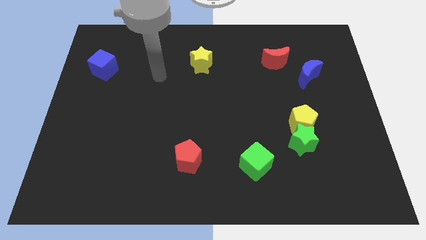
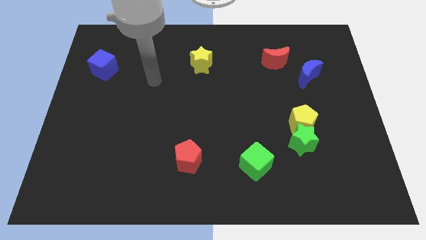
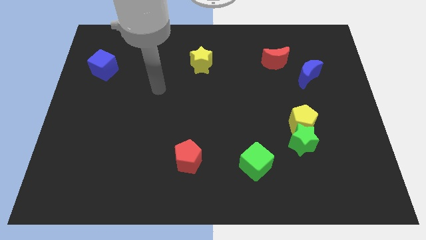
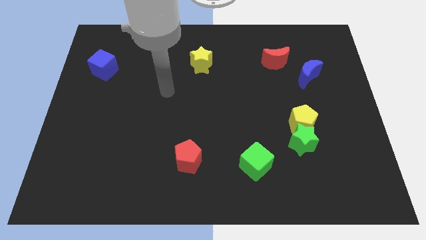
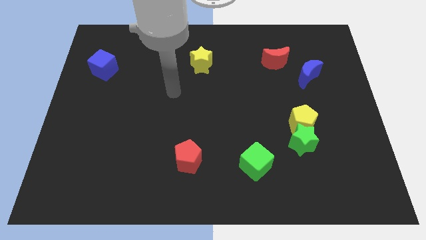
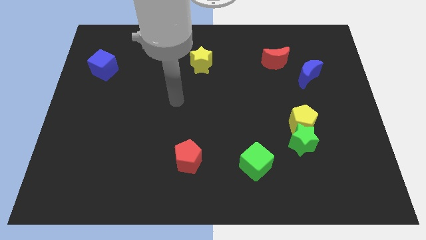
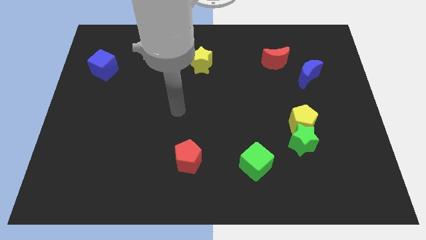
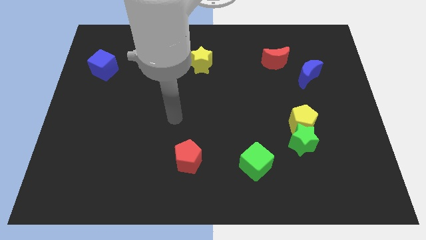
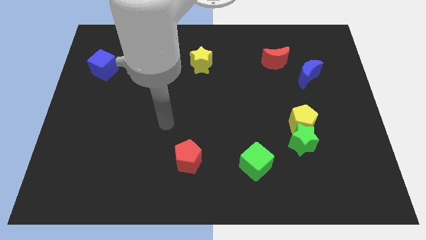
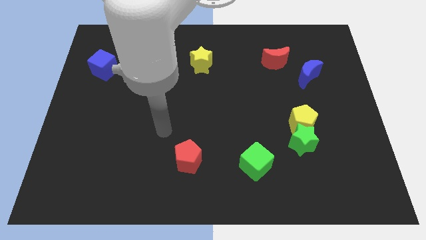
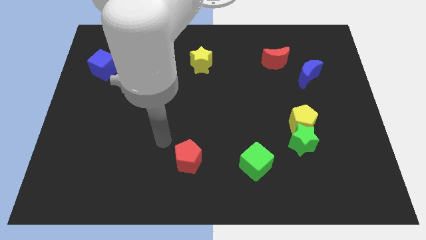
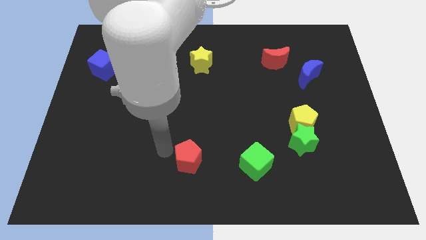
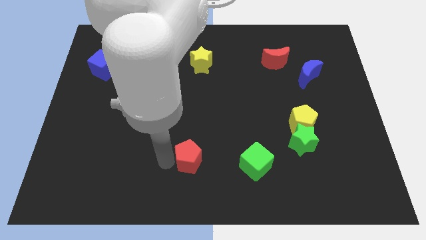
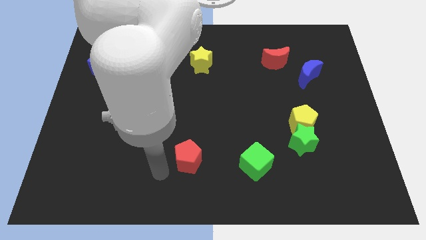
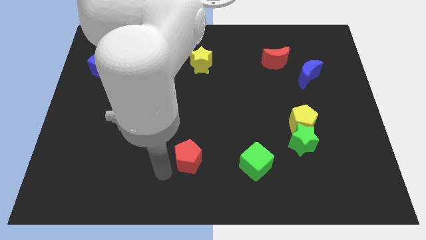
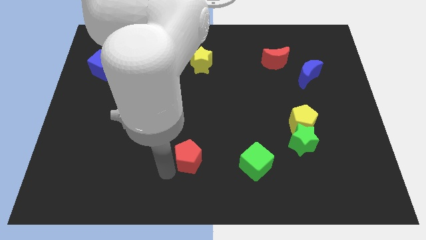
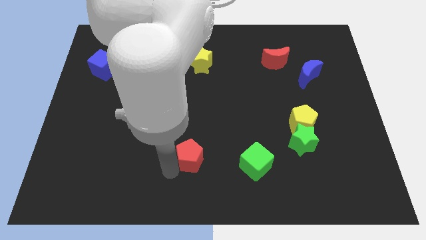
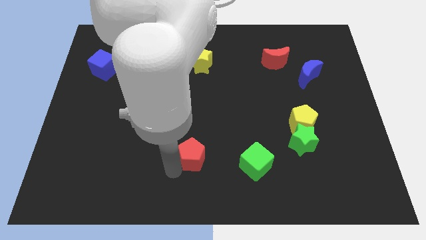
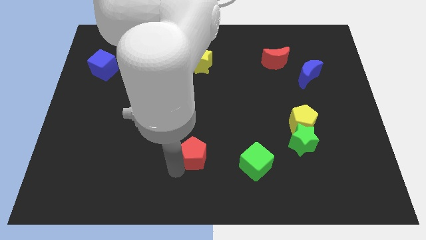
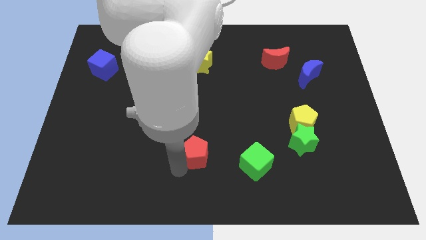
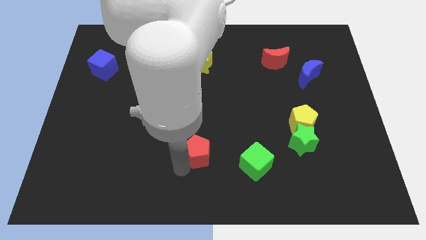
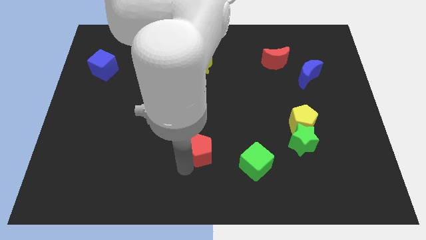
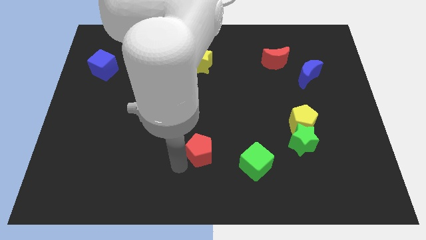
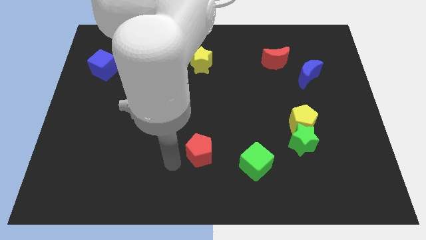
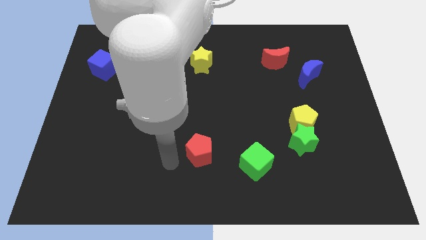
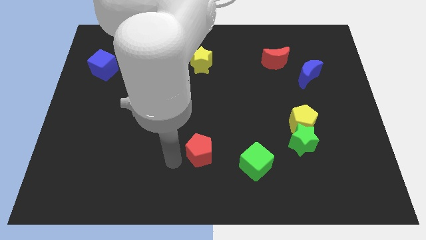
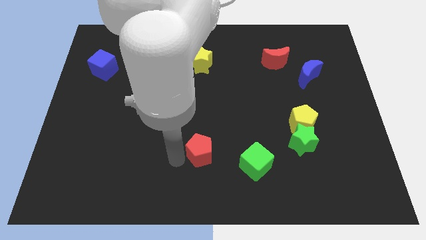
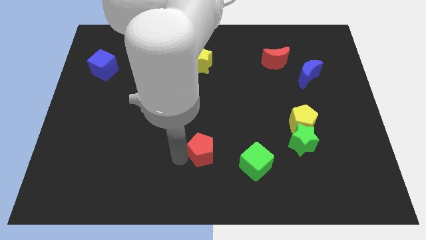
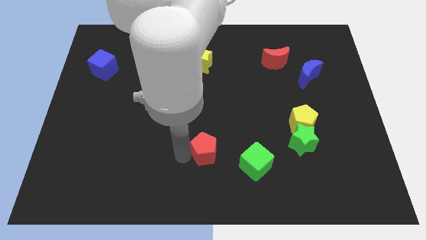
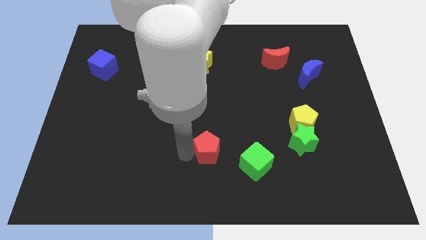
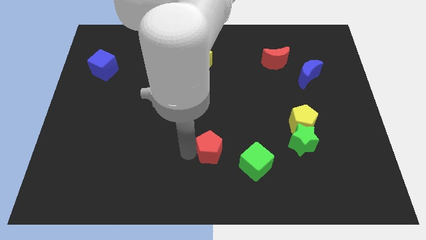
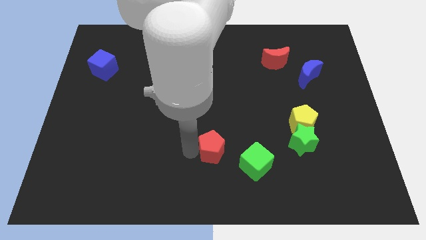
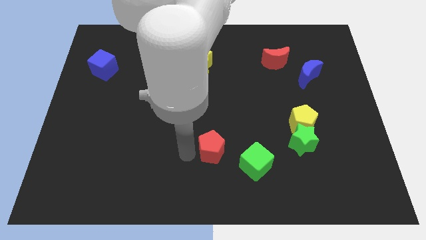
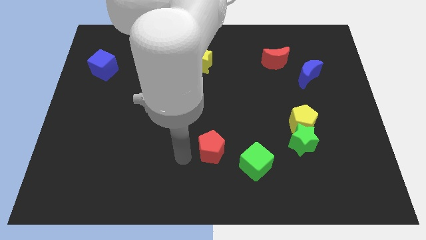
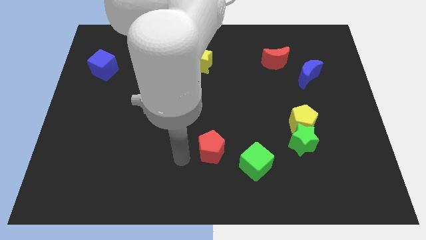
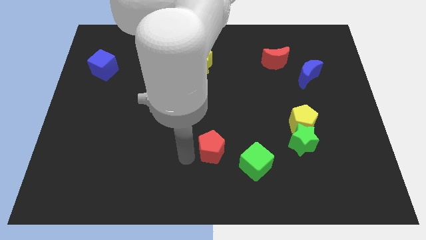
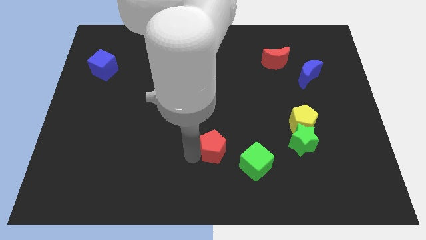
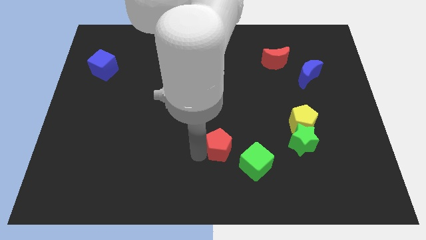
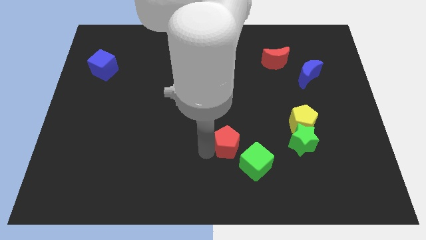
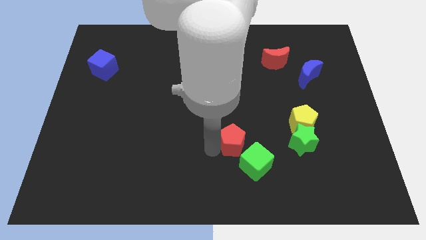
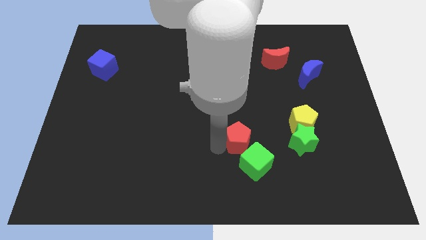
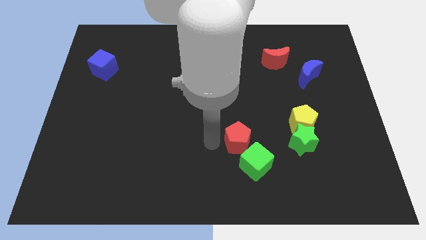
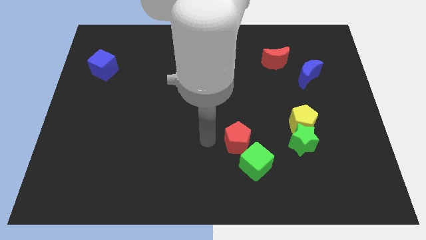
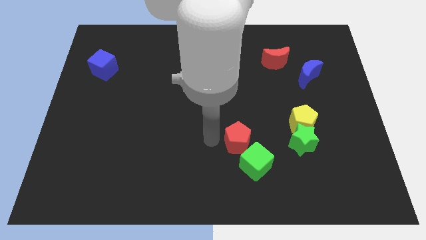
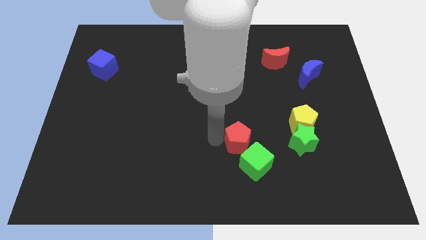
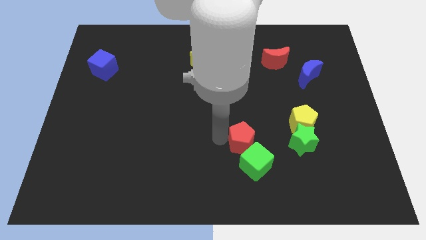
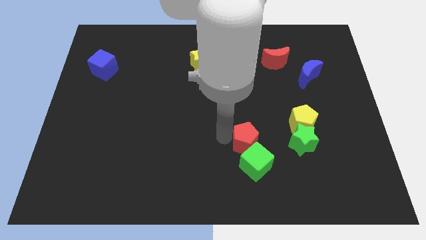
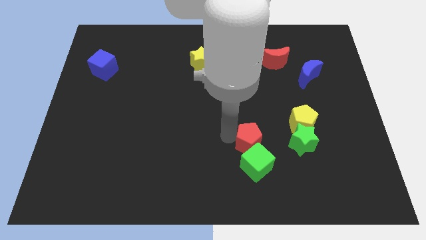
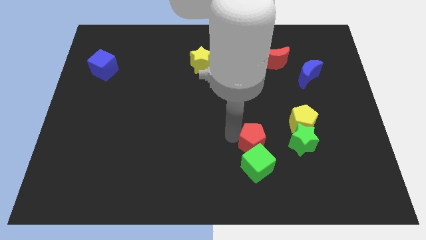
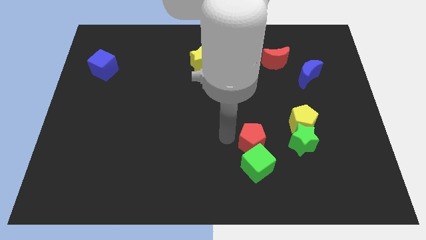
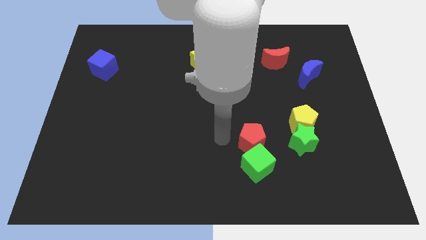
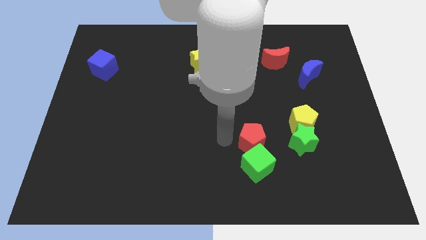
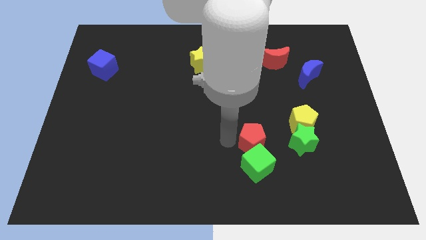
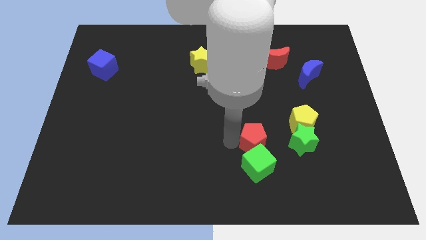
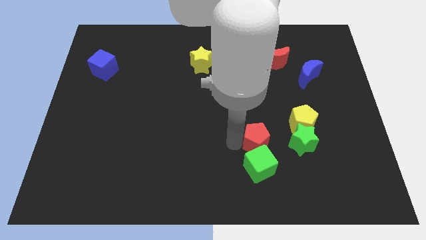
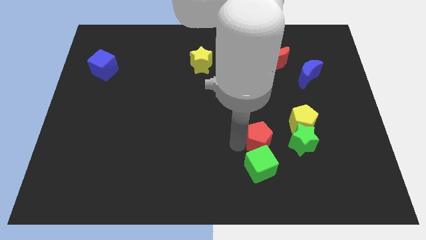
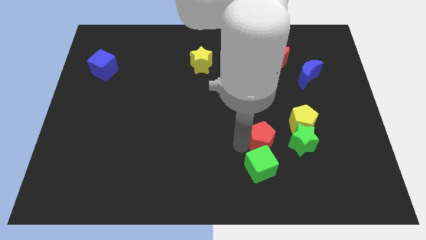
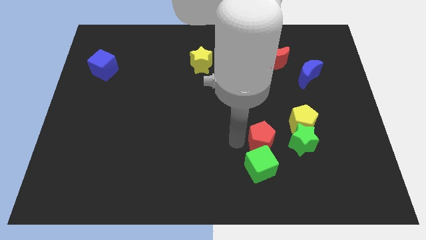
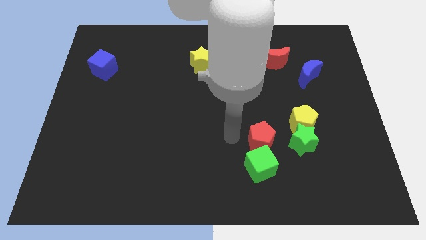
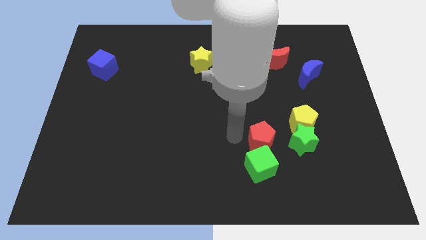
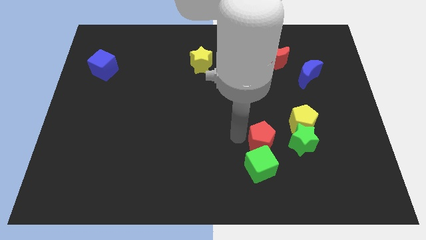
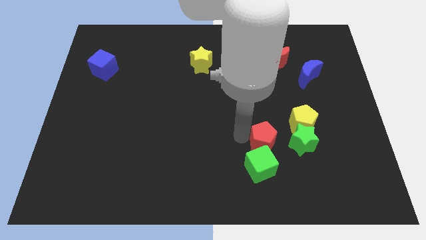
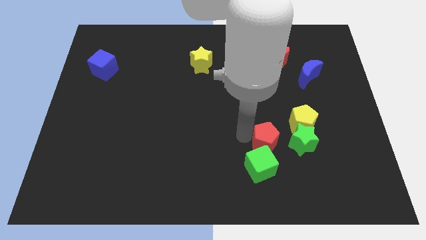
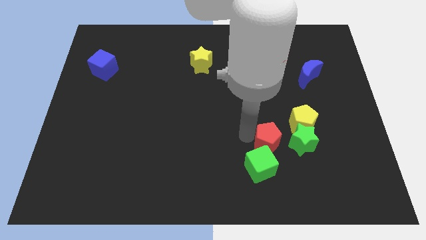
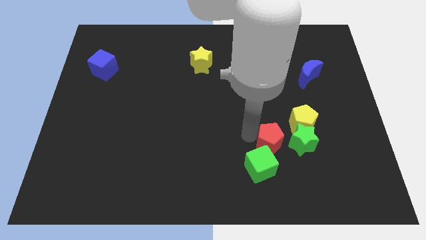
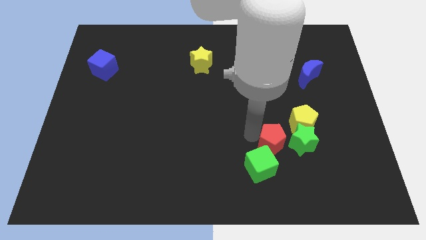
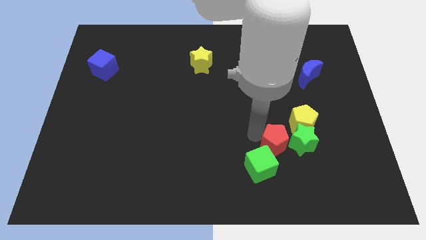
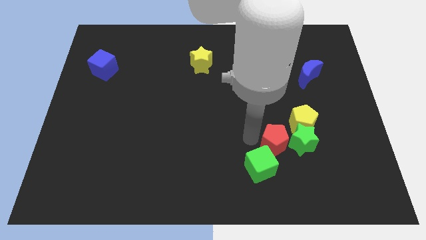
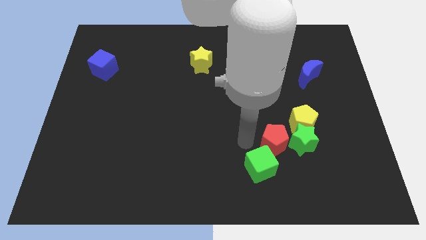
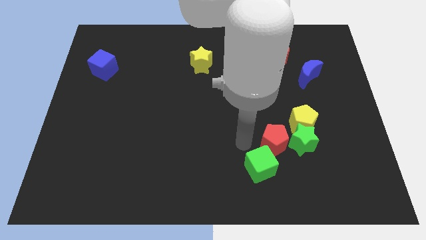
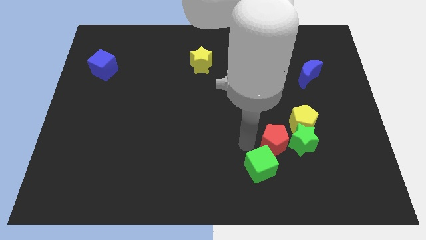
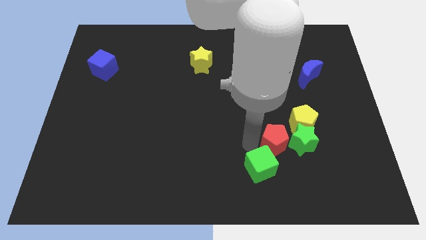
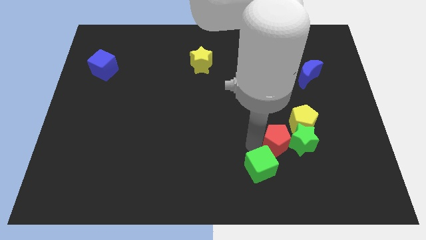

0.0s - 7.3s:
push the red pentagon next to the green star

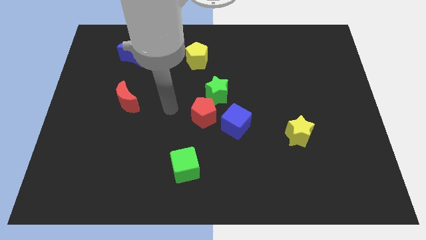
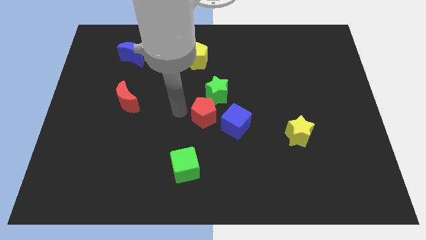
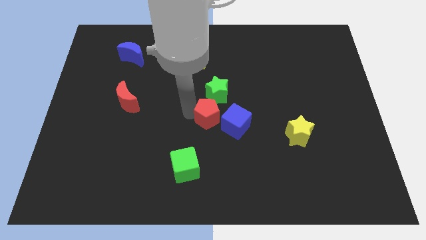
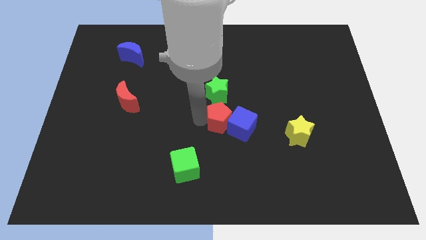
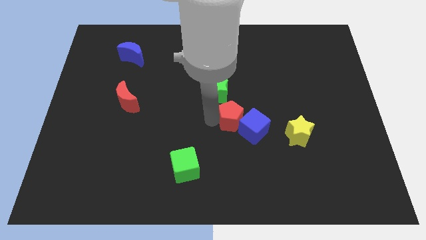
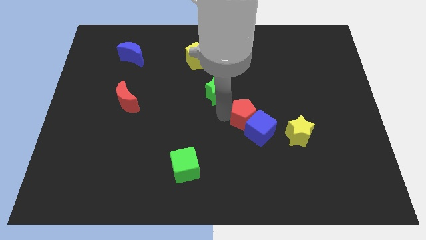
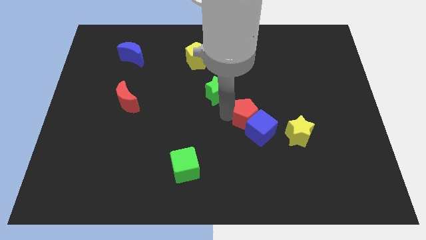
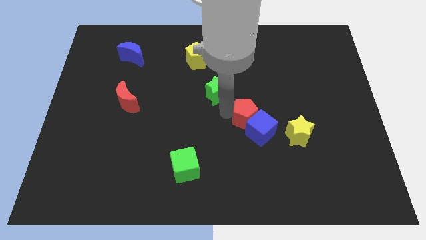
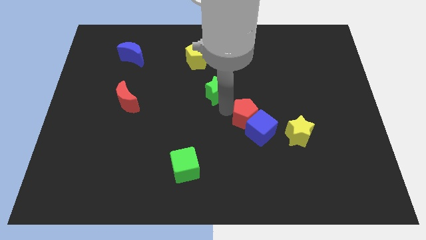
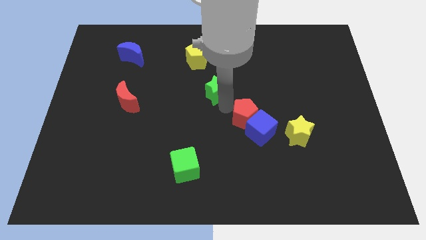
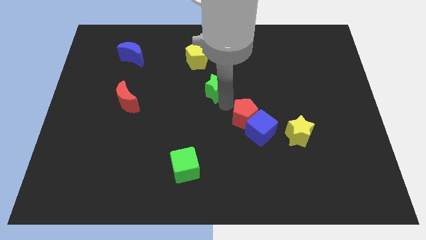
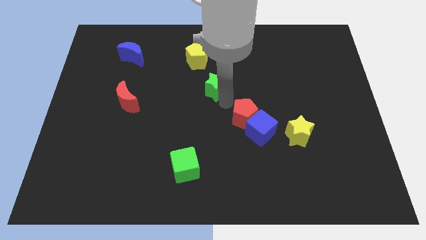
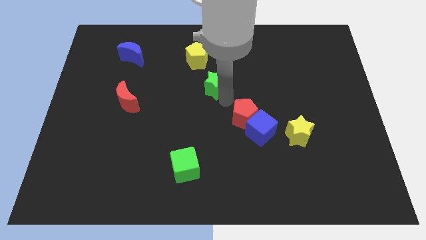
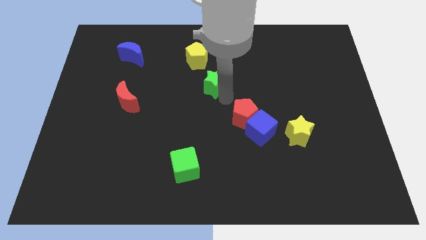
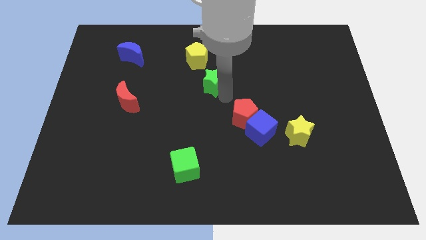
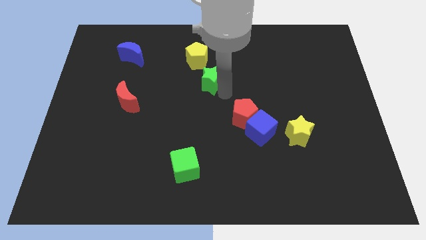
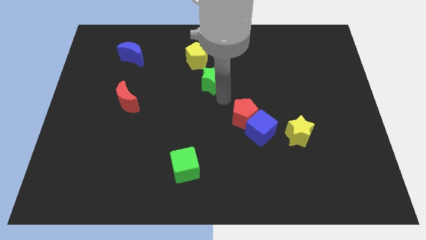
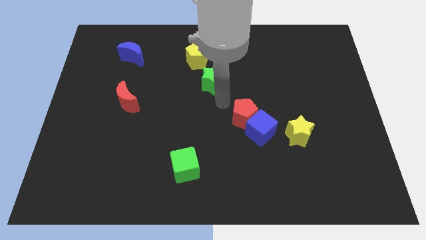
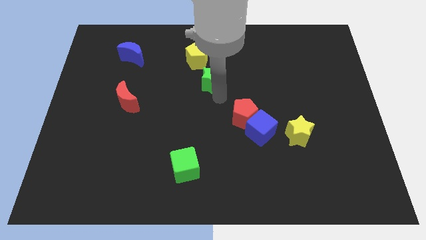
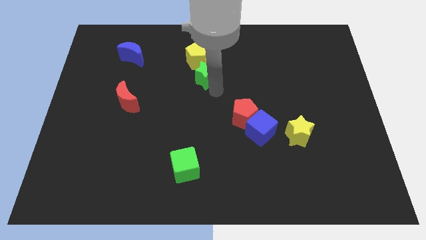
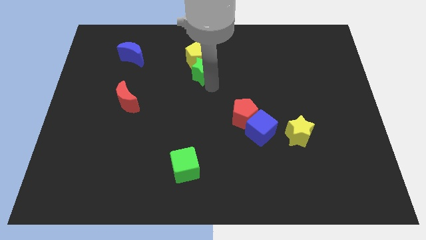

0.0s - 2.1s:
push the green star close to the yellow pentagon
